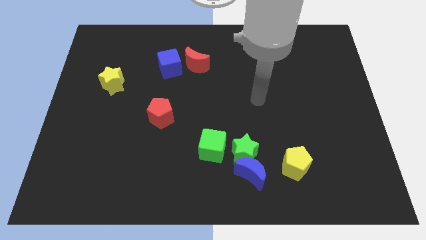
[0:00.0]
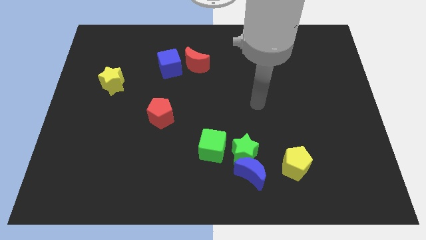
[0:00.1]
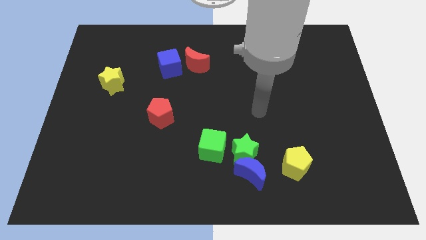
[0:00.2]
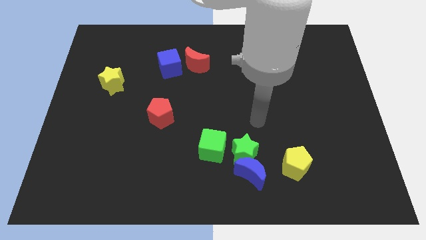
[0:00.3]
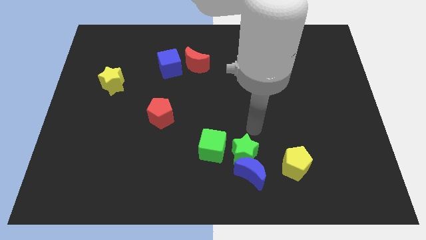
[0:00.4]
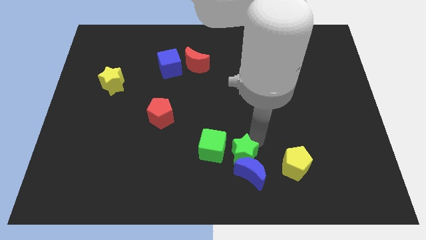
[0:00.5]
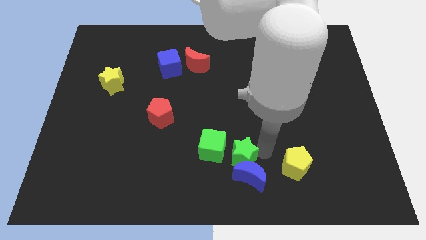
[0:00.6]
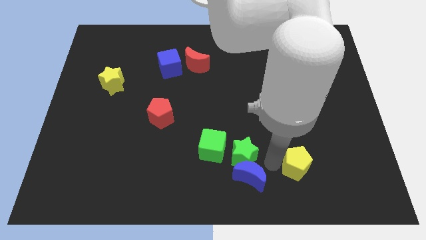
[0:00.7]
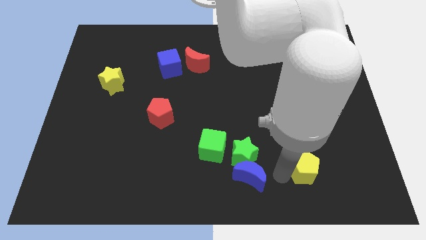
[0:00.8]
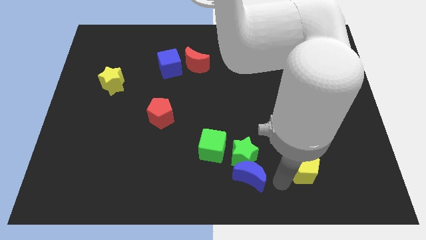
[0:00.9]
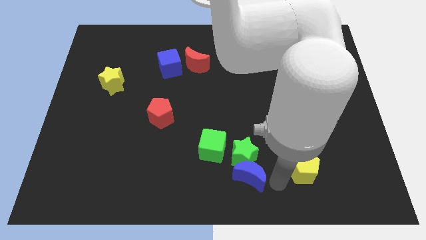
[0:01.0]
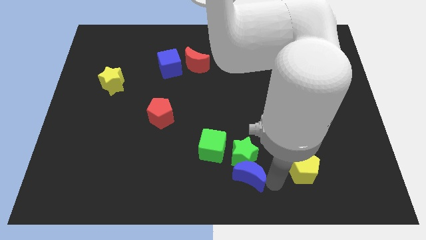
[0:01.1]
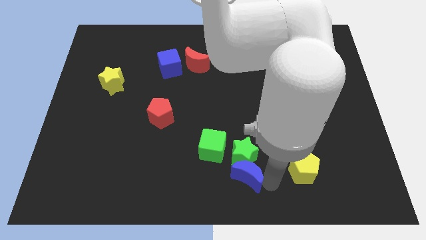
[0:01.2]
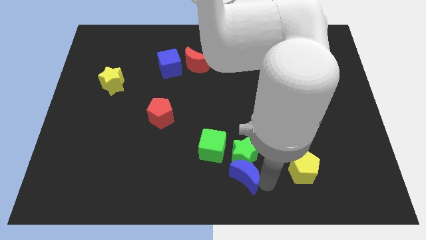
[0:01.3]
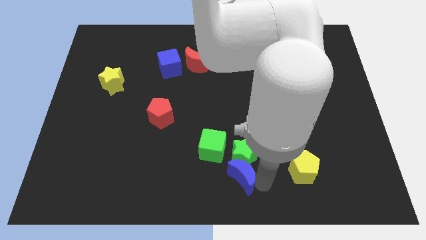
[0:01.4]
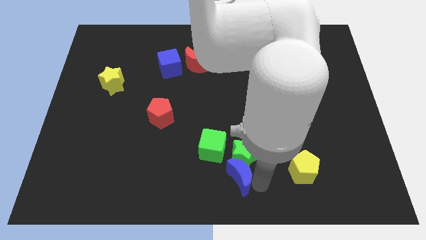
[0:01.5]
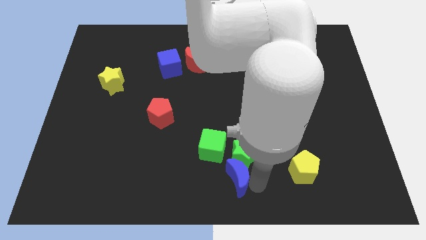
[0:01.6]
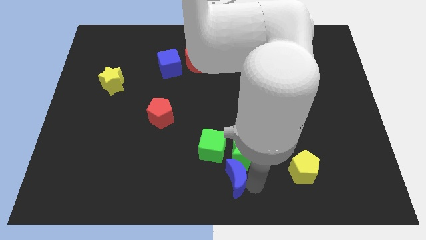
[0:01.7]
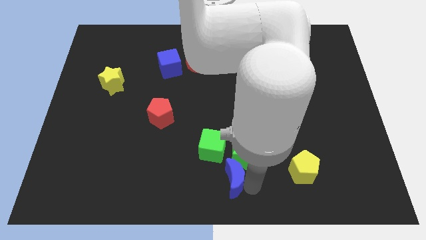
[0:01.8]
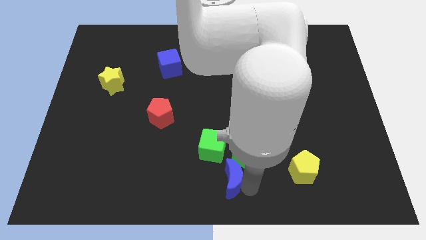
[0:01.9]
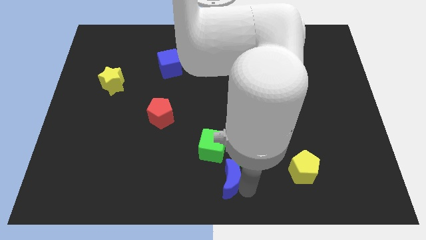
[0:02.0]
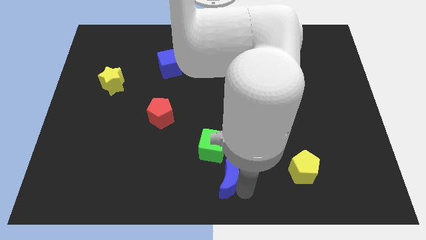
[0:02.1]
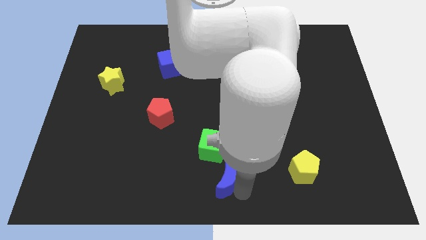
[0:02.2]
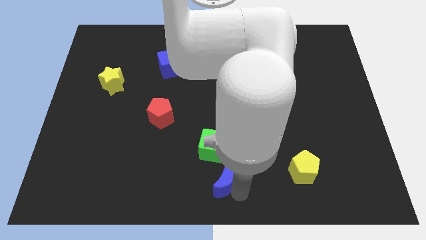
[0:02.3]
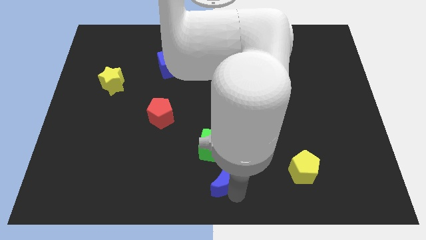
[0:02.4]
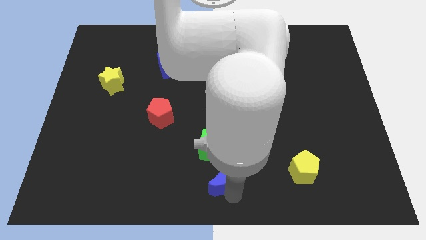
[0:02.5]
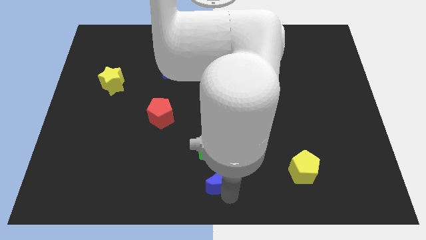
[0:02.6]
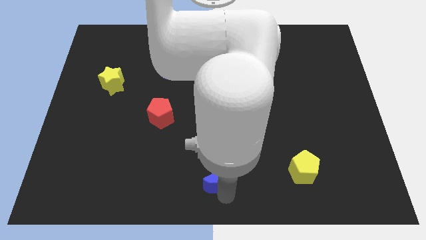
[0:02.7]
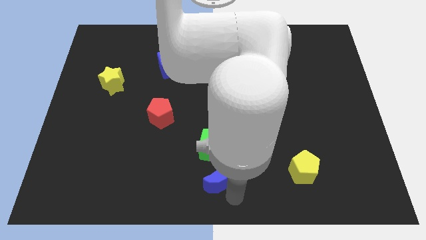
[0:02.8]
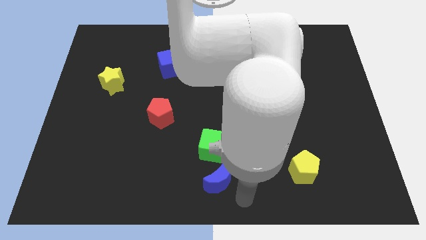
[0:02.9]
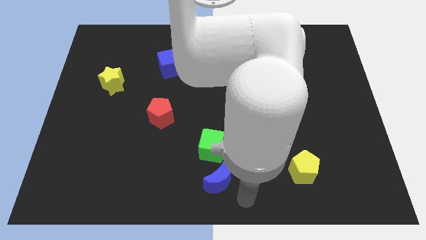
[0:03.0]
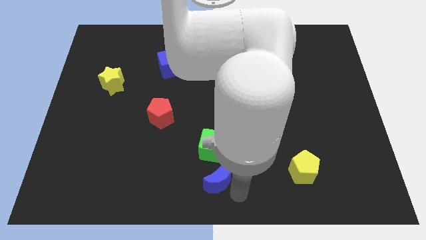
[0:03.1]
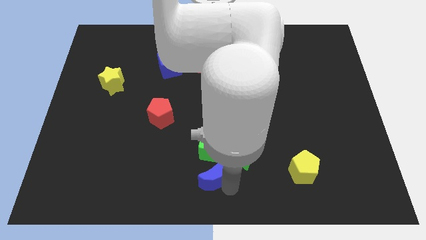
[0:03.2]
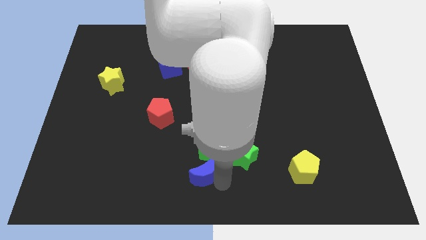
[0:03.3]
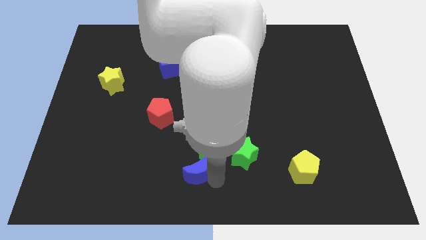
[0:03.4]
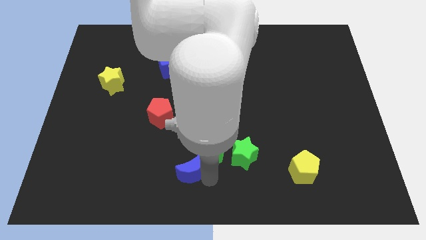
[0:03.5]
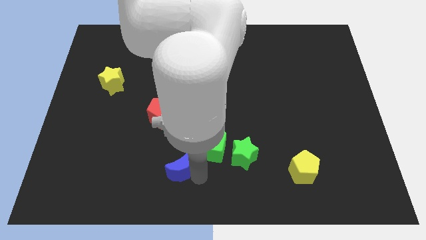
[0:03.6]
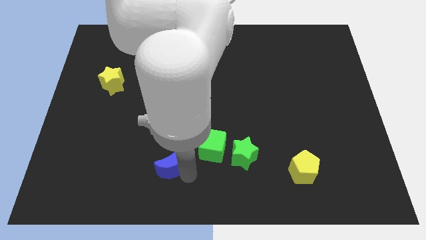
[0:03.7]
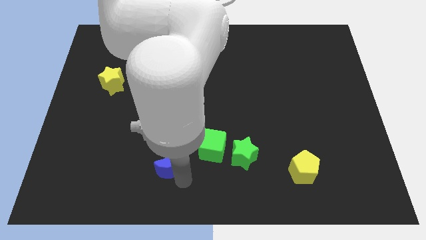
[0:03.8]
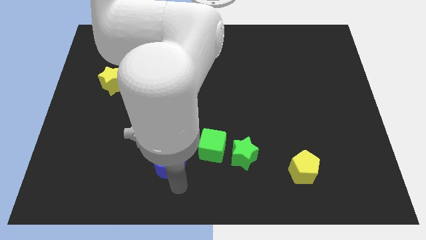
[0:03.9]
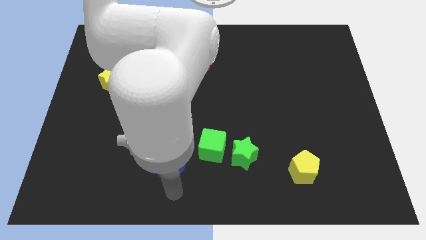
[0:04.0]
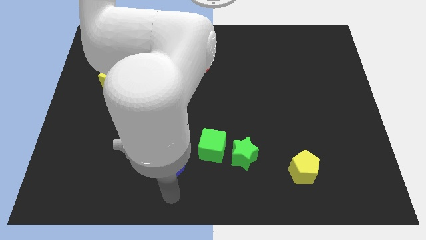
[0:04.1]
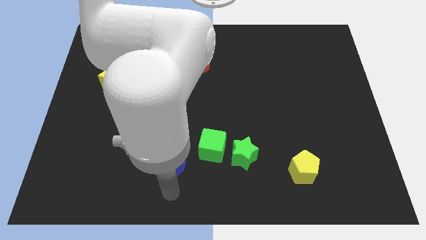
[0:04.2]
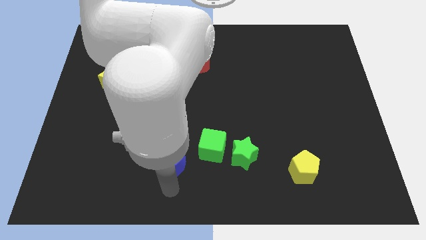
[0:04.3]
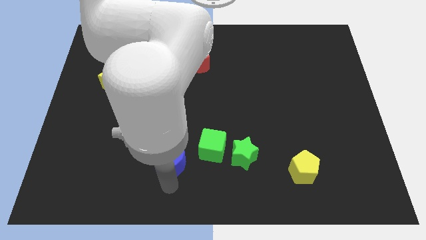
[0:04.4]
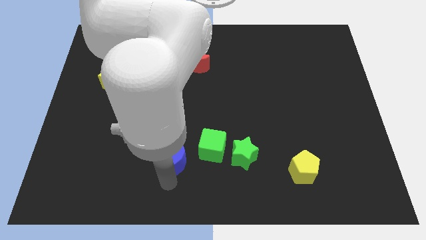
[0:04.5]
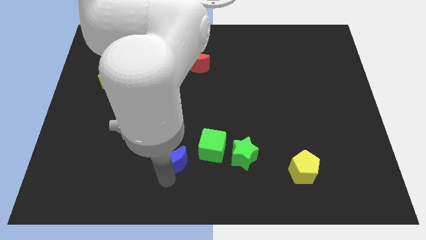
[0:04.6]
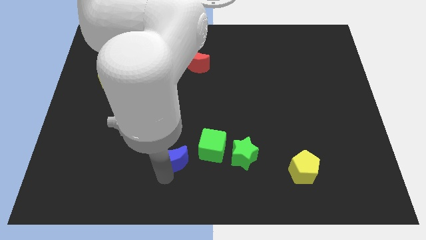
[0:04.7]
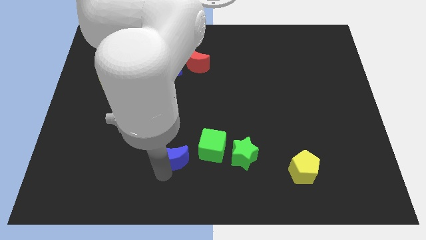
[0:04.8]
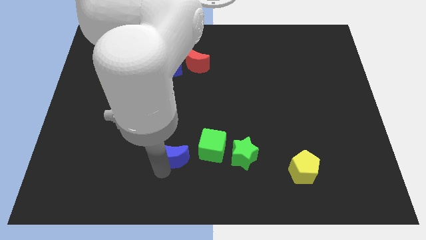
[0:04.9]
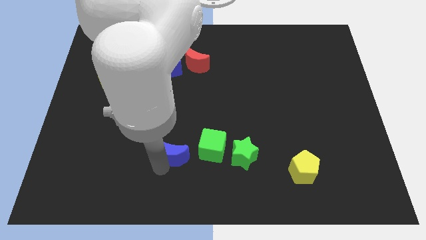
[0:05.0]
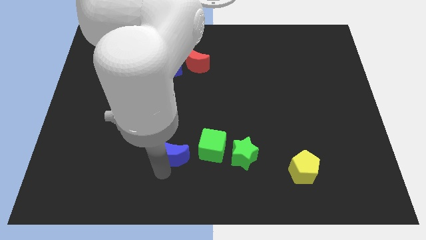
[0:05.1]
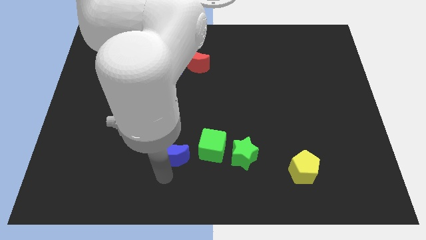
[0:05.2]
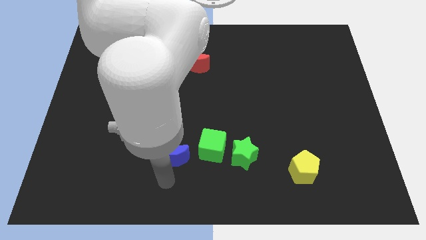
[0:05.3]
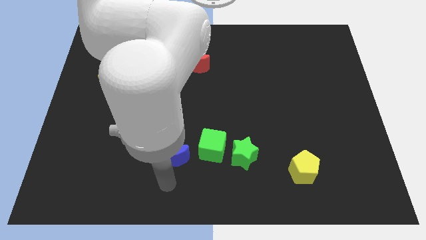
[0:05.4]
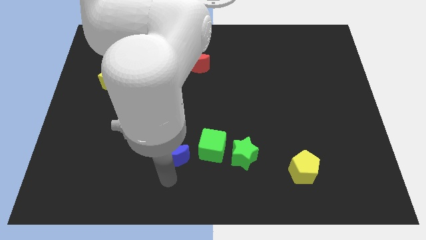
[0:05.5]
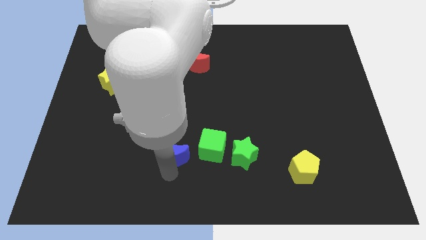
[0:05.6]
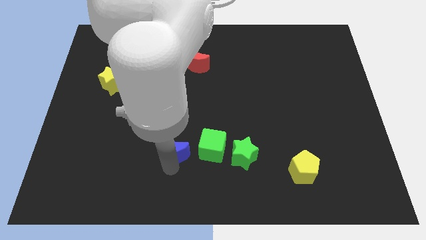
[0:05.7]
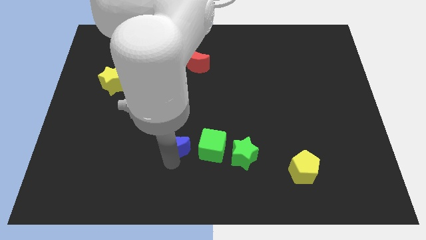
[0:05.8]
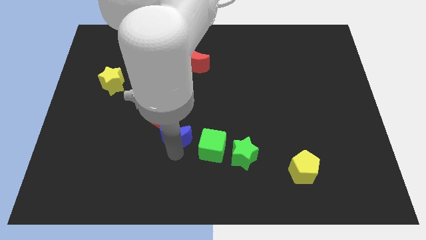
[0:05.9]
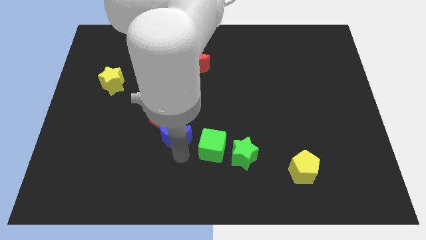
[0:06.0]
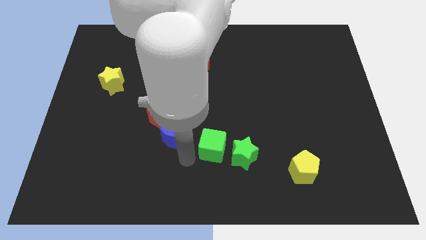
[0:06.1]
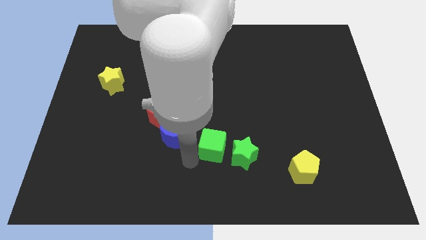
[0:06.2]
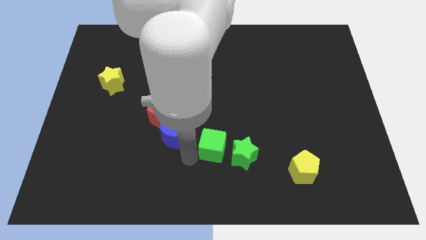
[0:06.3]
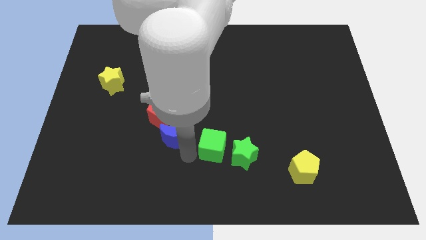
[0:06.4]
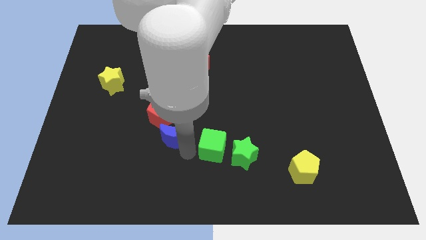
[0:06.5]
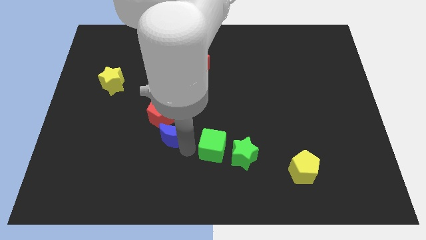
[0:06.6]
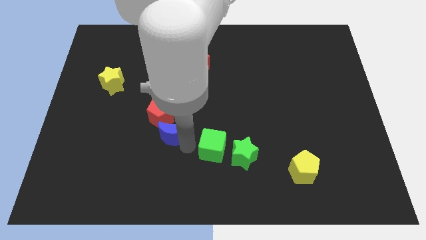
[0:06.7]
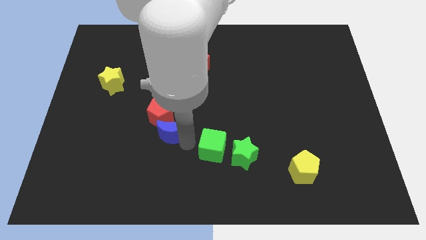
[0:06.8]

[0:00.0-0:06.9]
move the blue moon to the red pentagon

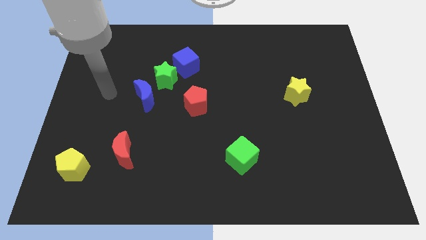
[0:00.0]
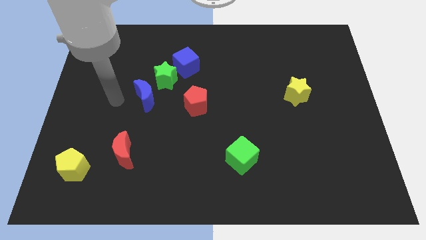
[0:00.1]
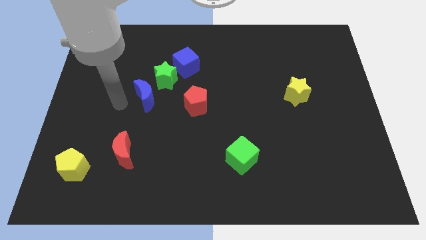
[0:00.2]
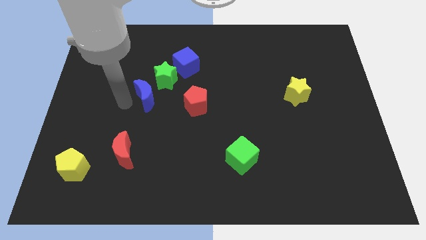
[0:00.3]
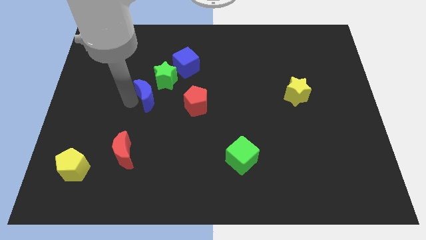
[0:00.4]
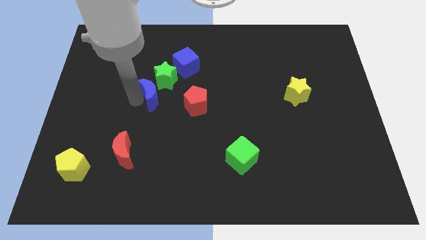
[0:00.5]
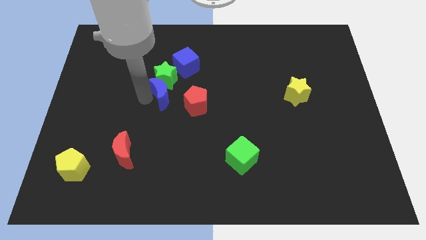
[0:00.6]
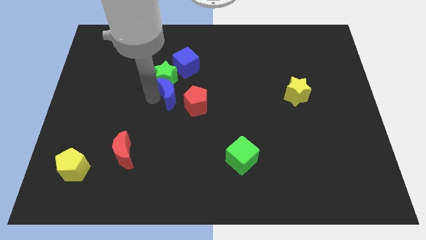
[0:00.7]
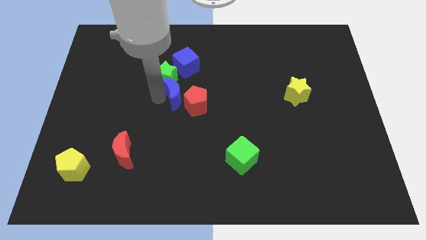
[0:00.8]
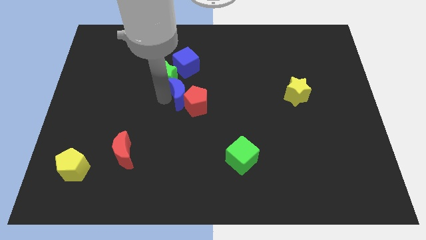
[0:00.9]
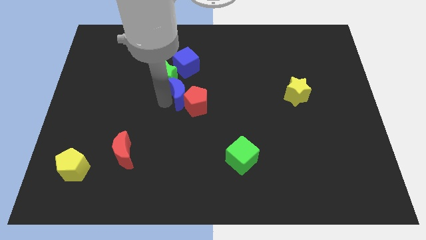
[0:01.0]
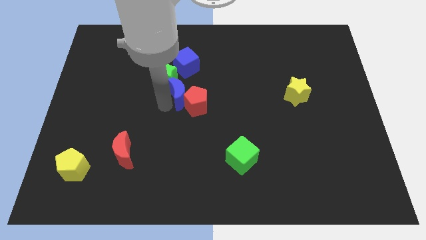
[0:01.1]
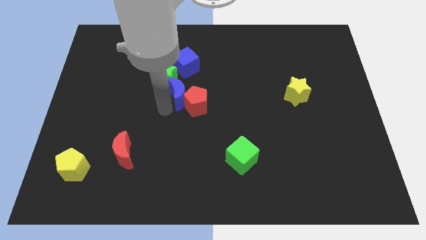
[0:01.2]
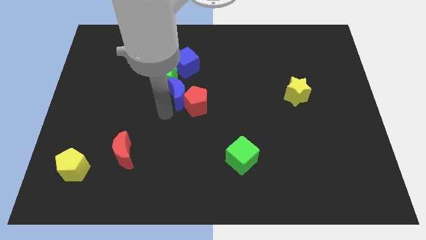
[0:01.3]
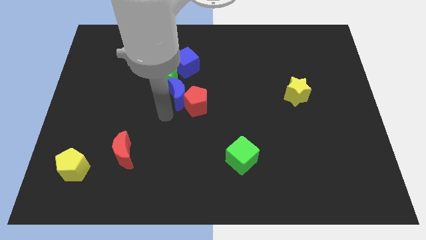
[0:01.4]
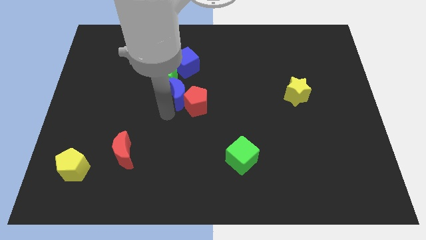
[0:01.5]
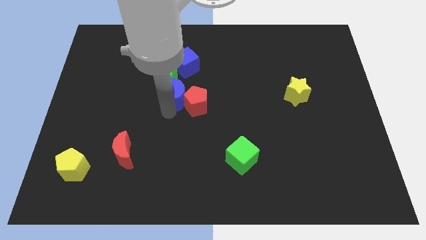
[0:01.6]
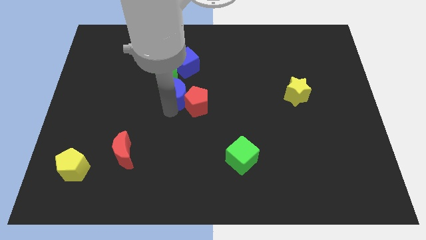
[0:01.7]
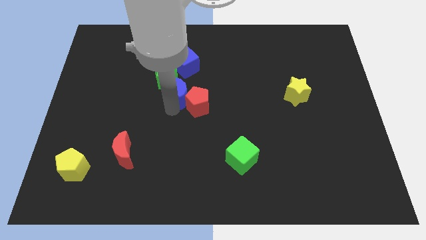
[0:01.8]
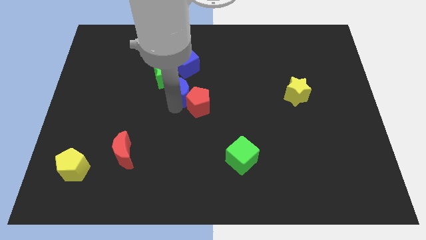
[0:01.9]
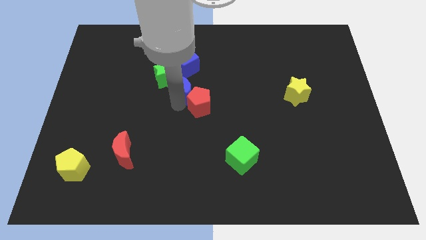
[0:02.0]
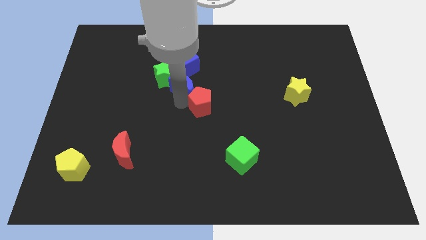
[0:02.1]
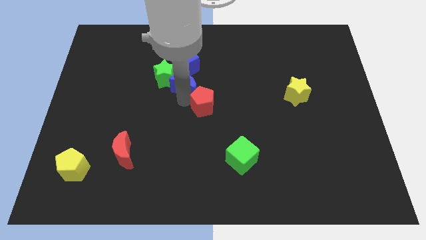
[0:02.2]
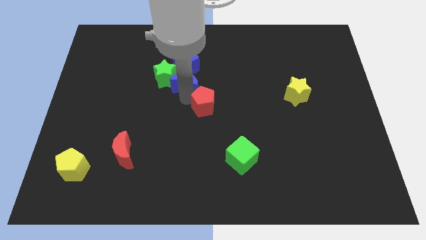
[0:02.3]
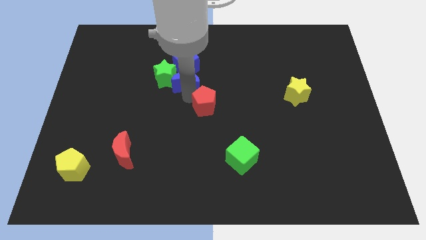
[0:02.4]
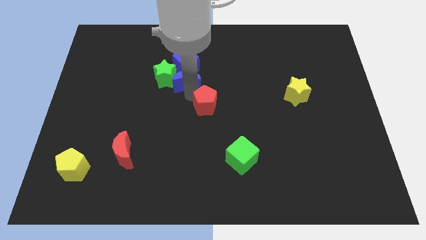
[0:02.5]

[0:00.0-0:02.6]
slide the blue moon to the blue cube
